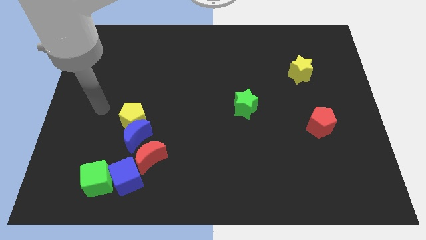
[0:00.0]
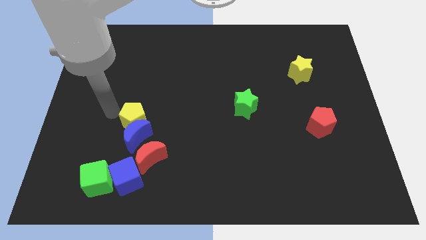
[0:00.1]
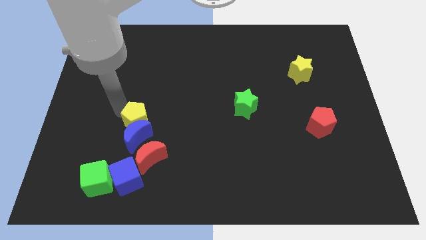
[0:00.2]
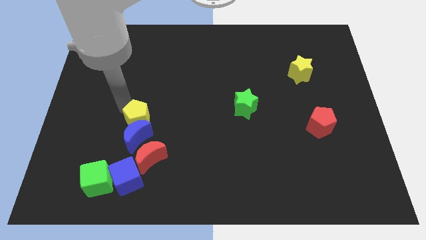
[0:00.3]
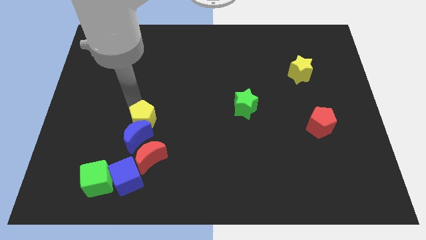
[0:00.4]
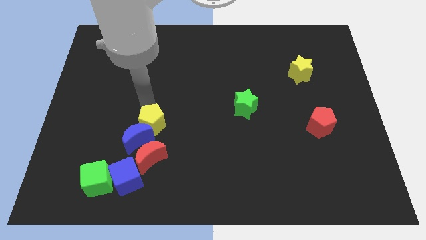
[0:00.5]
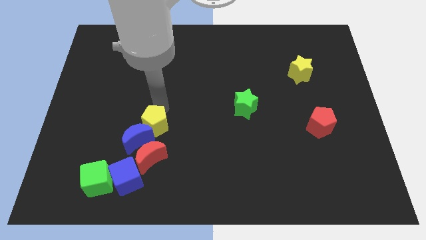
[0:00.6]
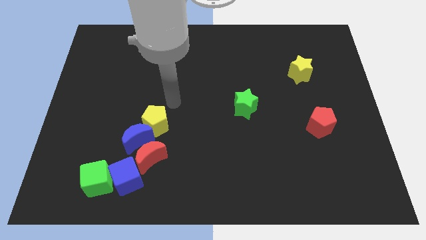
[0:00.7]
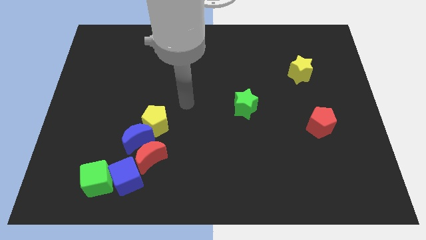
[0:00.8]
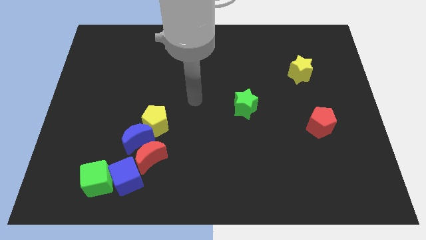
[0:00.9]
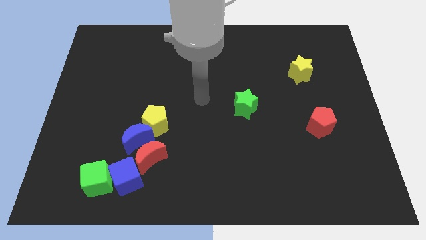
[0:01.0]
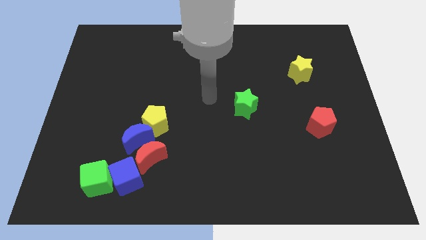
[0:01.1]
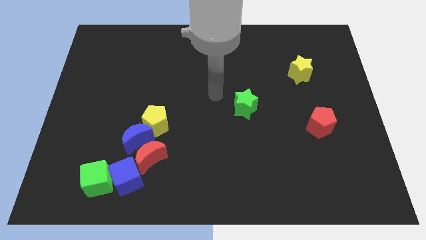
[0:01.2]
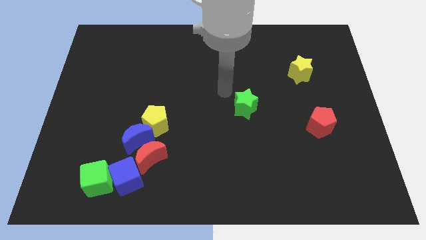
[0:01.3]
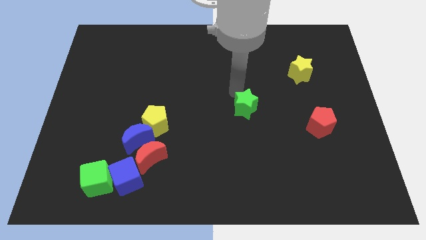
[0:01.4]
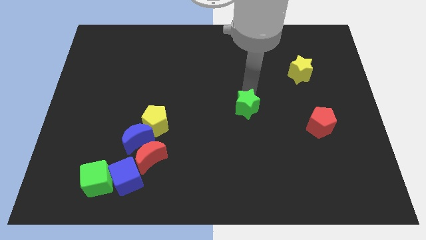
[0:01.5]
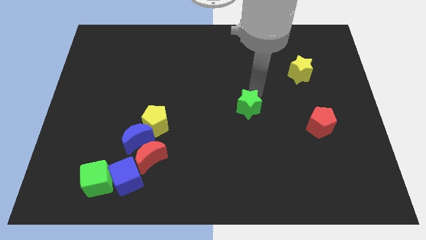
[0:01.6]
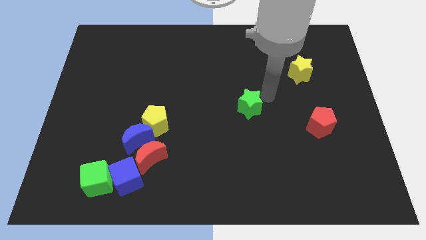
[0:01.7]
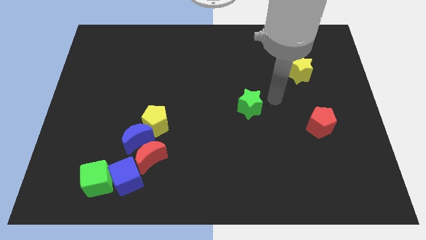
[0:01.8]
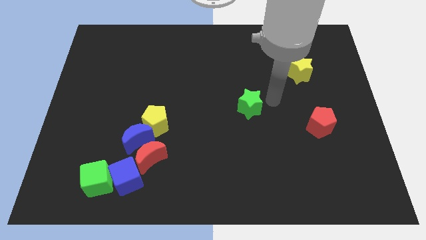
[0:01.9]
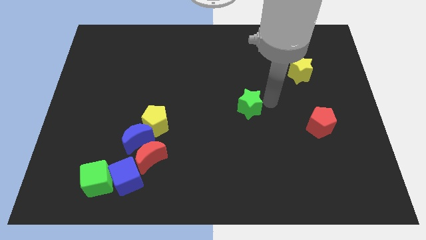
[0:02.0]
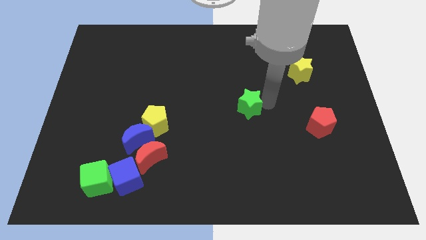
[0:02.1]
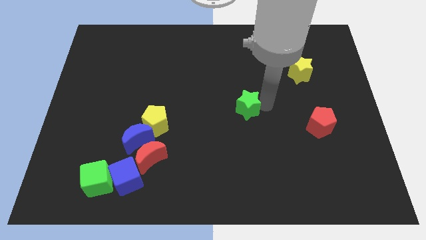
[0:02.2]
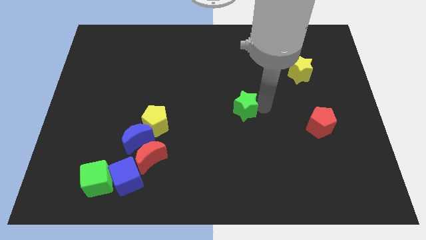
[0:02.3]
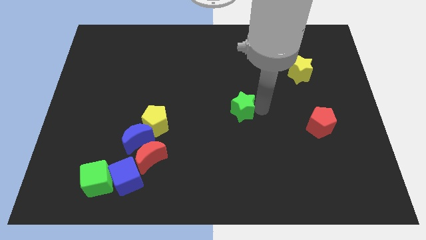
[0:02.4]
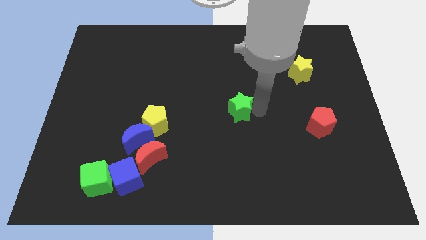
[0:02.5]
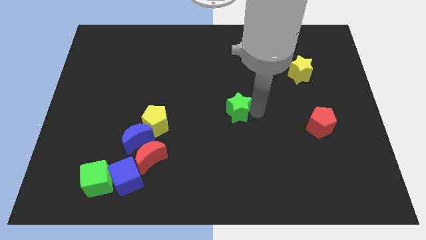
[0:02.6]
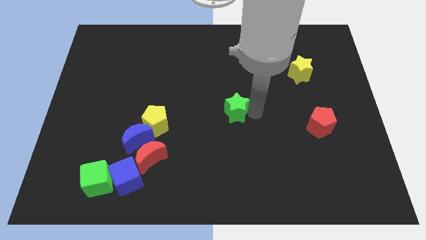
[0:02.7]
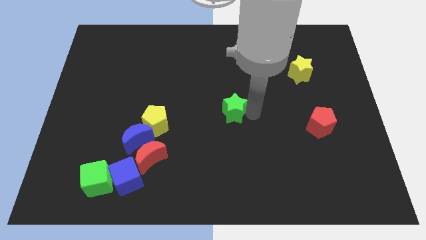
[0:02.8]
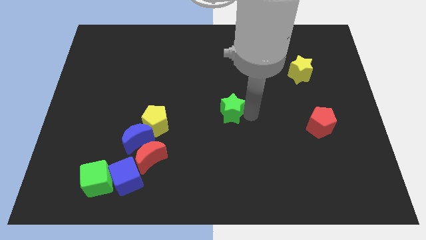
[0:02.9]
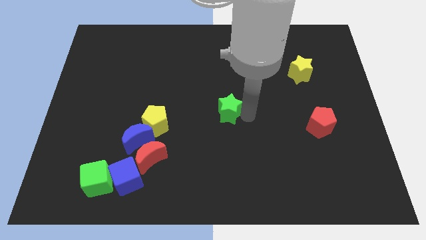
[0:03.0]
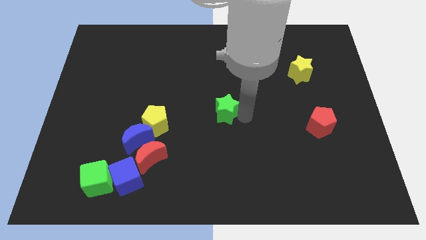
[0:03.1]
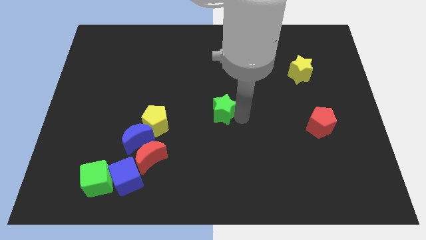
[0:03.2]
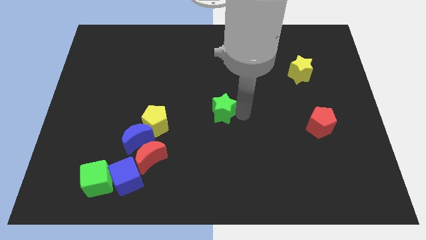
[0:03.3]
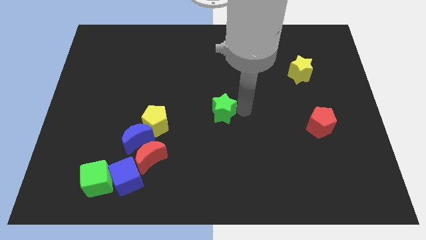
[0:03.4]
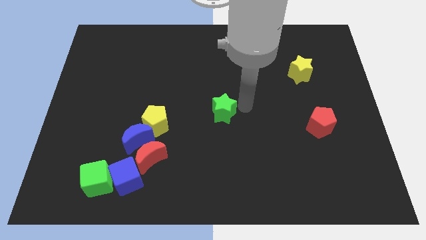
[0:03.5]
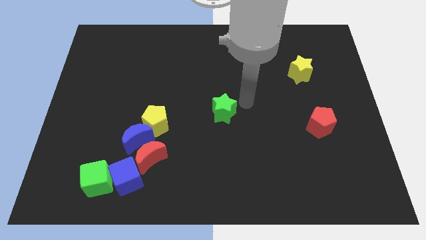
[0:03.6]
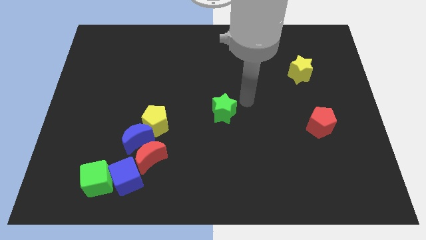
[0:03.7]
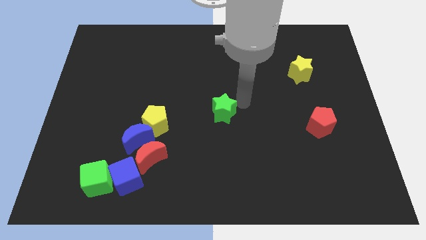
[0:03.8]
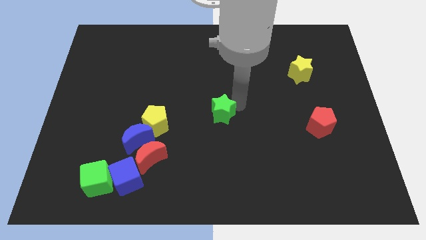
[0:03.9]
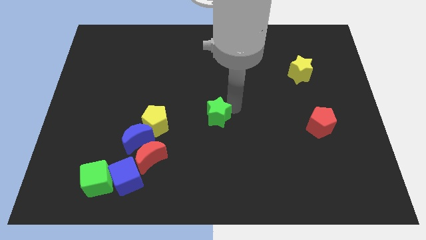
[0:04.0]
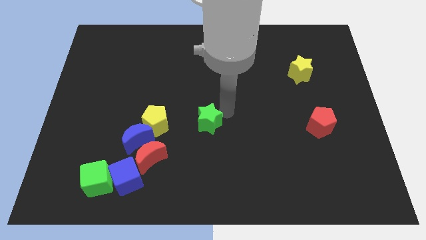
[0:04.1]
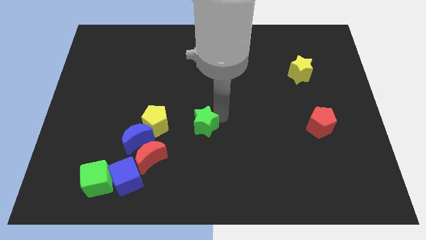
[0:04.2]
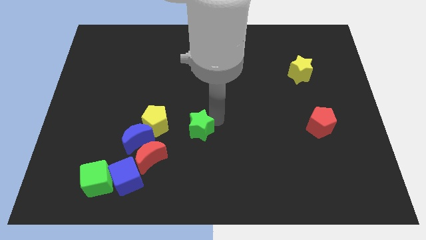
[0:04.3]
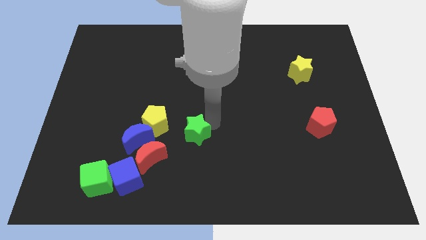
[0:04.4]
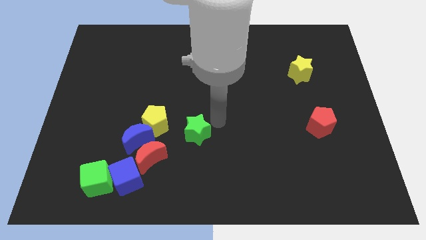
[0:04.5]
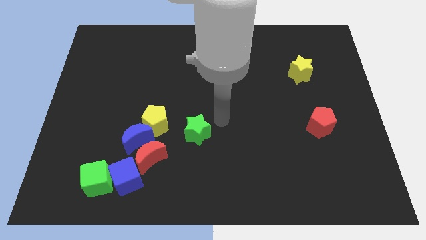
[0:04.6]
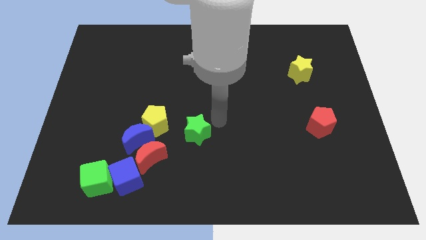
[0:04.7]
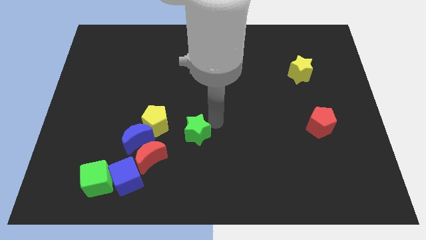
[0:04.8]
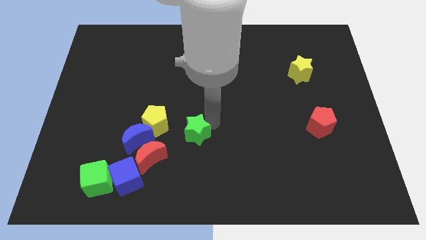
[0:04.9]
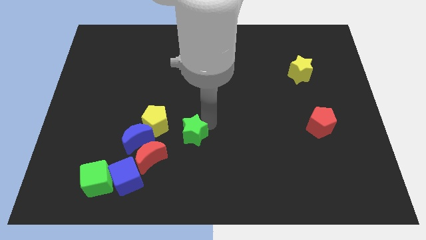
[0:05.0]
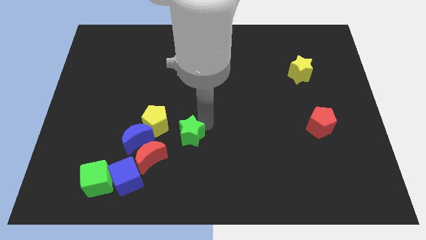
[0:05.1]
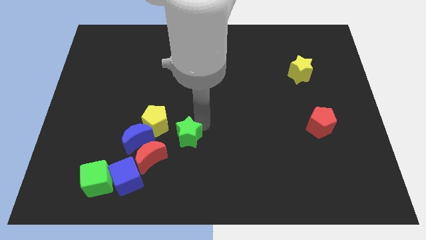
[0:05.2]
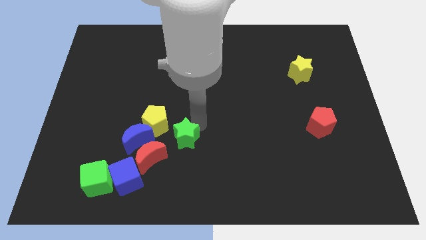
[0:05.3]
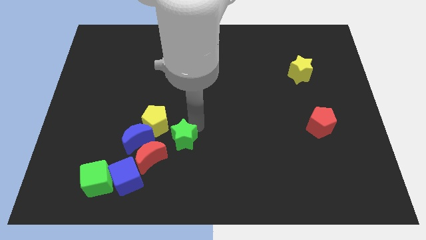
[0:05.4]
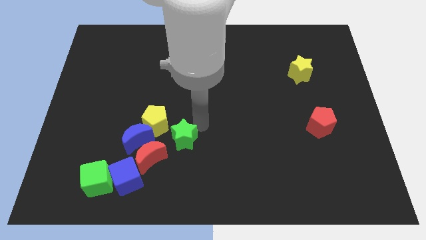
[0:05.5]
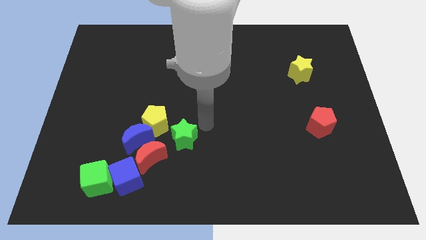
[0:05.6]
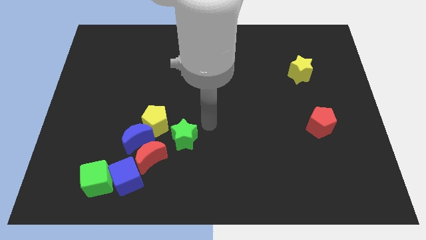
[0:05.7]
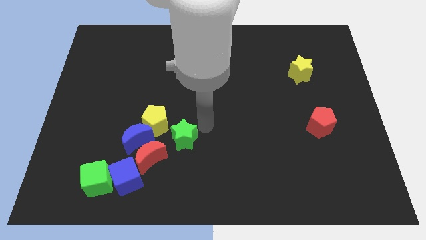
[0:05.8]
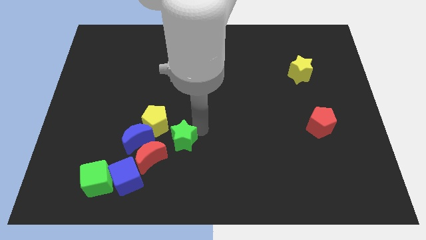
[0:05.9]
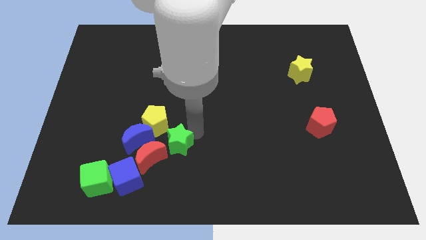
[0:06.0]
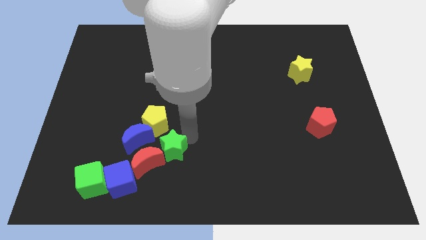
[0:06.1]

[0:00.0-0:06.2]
move the green star to the red moon

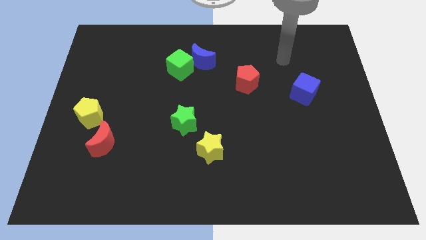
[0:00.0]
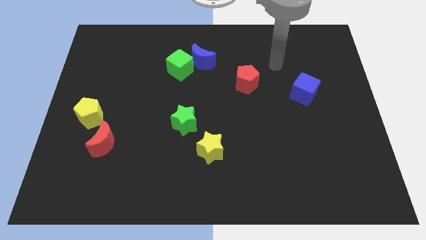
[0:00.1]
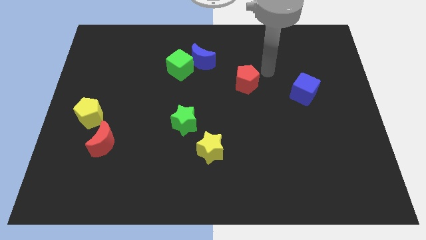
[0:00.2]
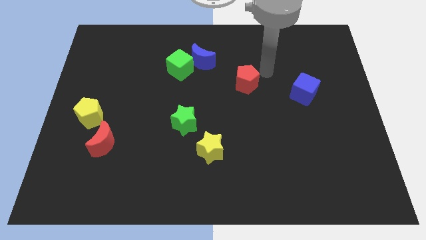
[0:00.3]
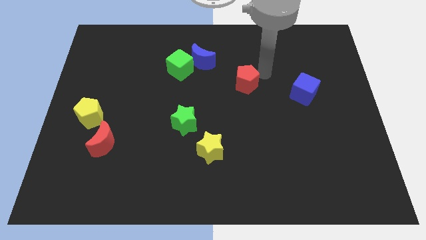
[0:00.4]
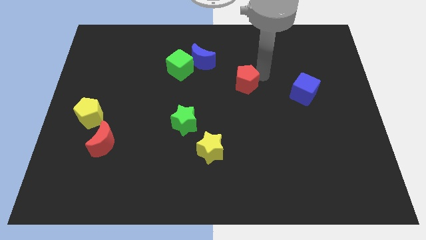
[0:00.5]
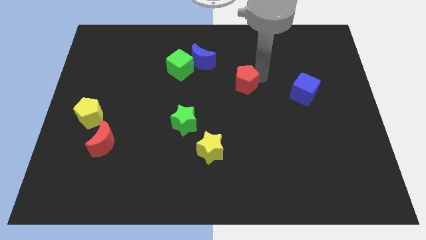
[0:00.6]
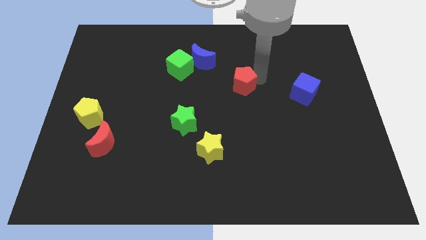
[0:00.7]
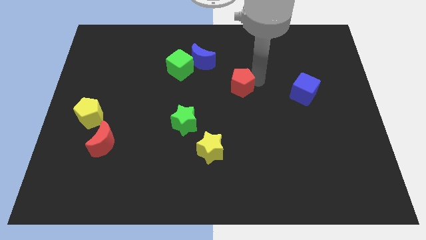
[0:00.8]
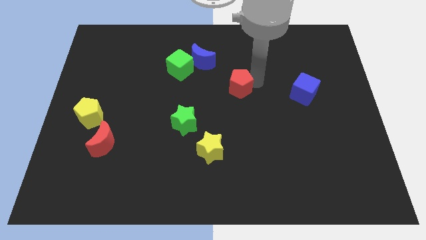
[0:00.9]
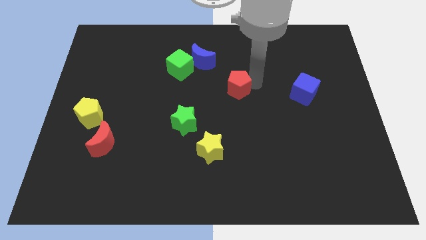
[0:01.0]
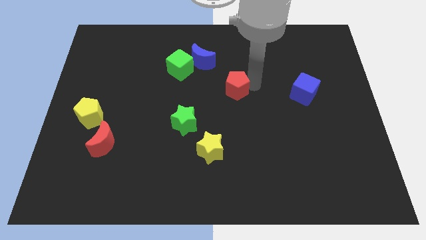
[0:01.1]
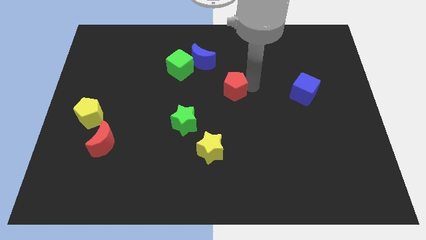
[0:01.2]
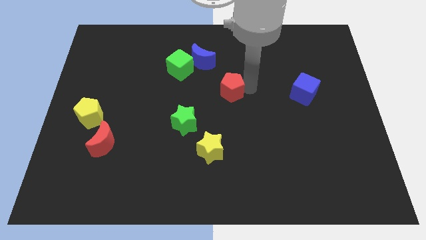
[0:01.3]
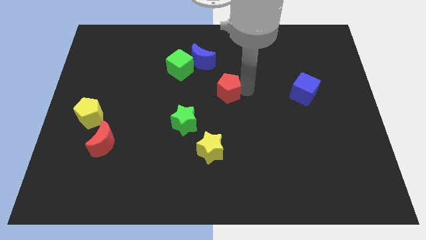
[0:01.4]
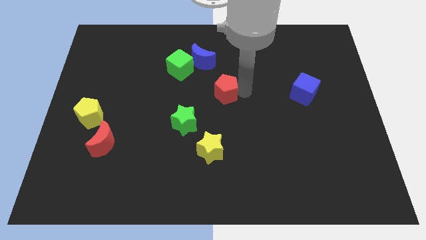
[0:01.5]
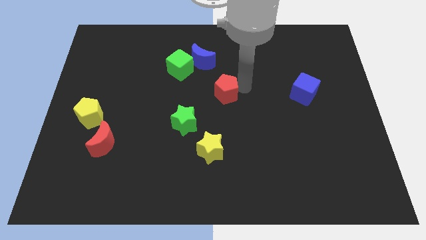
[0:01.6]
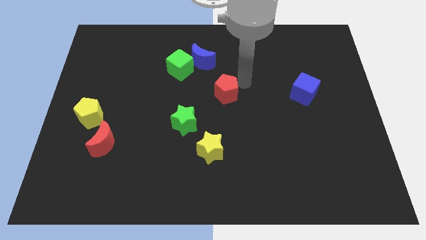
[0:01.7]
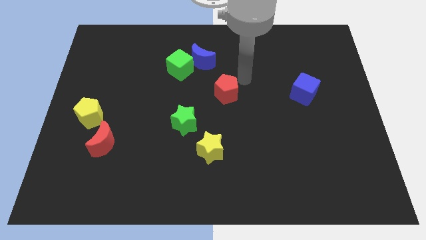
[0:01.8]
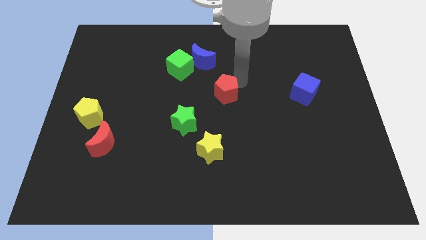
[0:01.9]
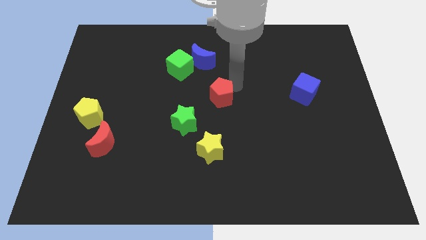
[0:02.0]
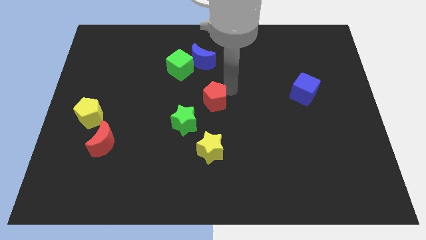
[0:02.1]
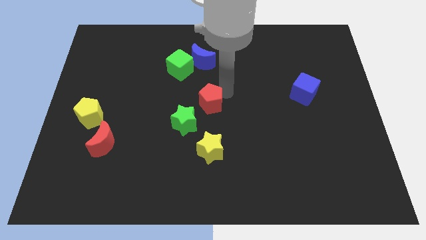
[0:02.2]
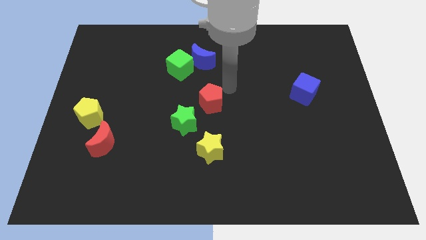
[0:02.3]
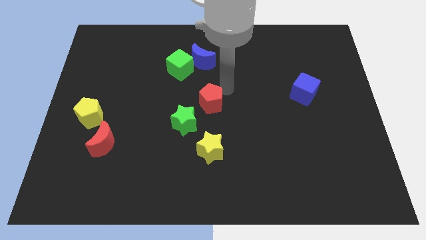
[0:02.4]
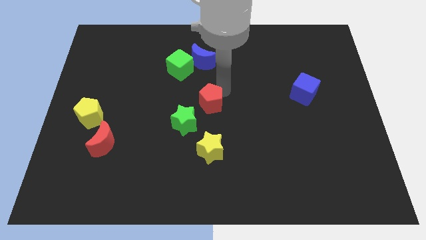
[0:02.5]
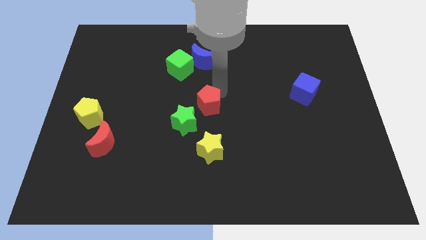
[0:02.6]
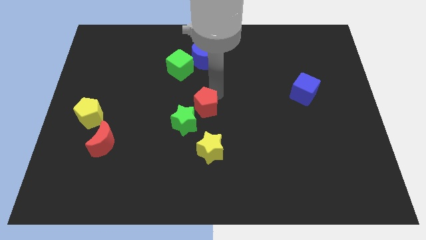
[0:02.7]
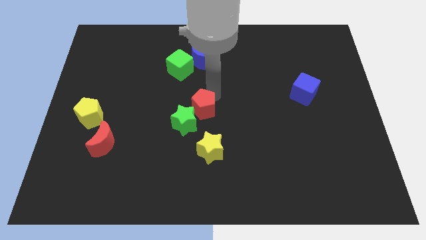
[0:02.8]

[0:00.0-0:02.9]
move the red pentagon to the green star
